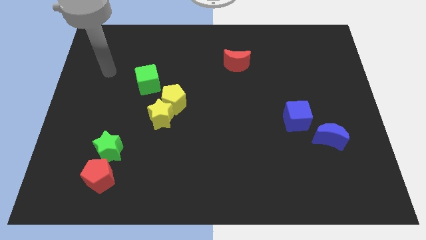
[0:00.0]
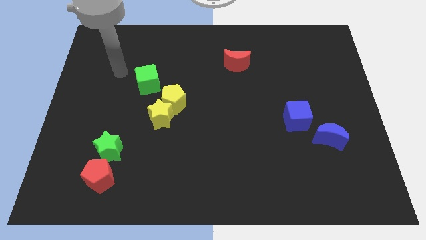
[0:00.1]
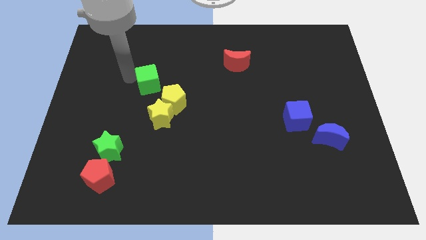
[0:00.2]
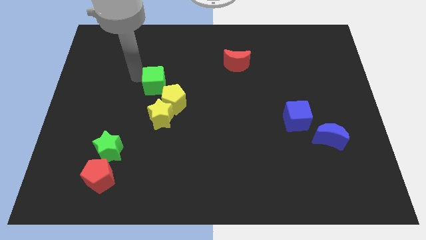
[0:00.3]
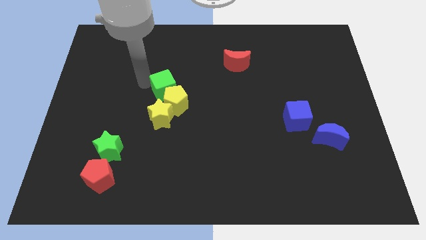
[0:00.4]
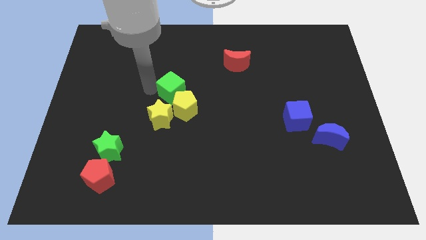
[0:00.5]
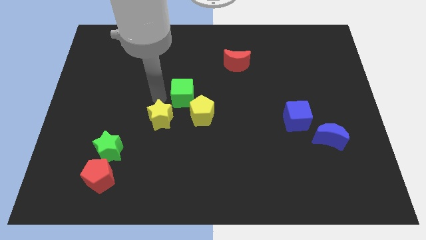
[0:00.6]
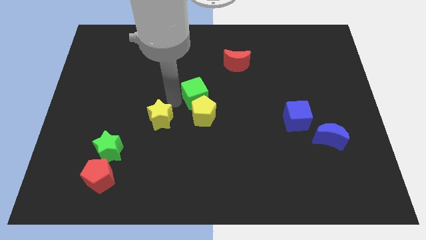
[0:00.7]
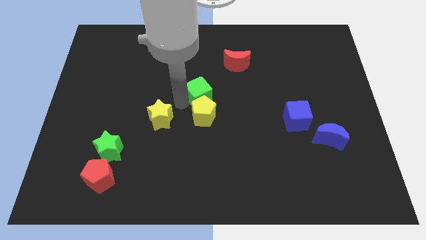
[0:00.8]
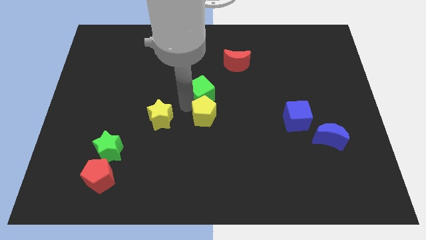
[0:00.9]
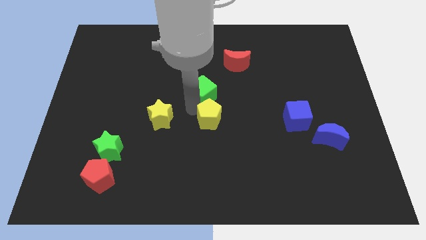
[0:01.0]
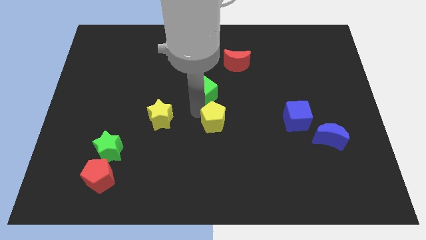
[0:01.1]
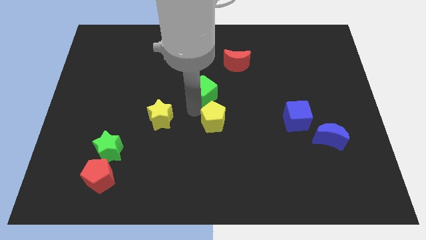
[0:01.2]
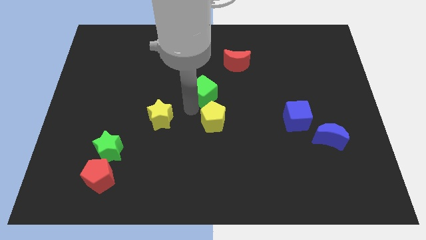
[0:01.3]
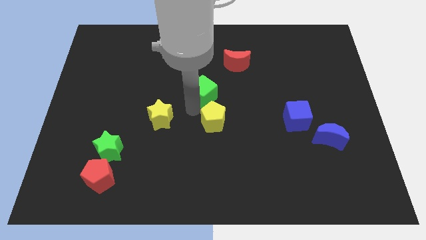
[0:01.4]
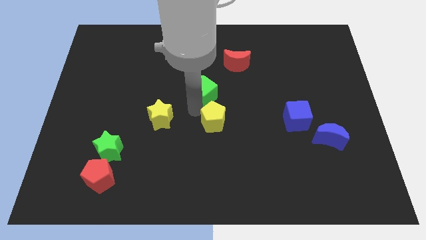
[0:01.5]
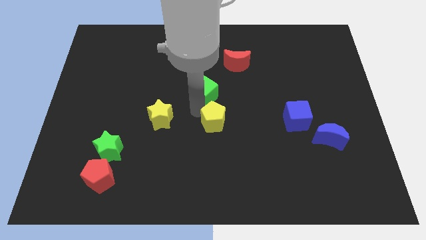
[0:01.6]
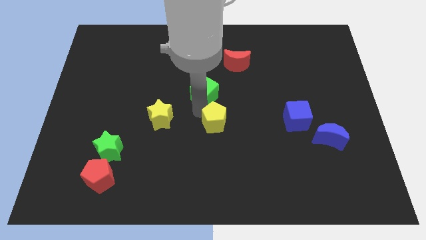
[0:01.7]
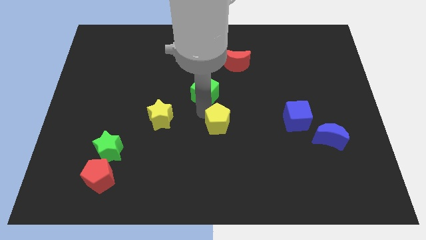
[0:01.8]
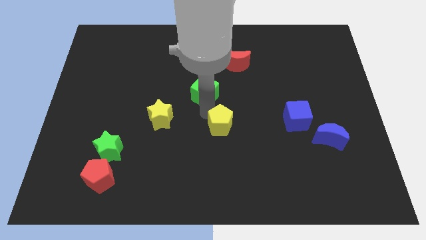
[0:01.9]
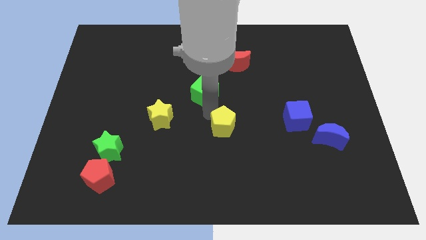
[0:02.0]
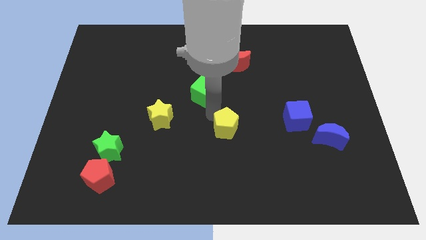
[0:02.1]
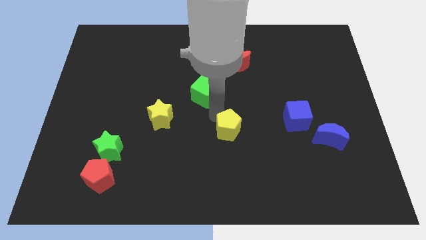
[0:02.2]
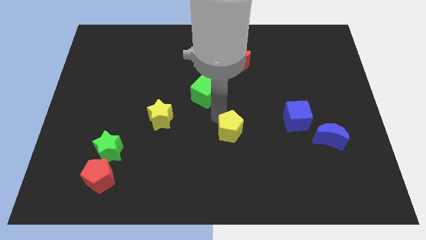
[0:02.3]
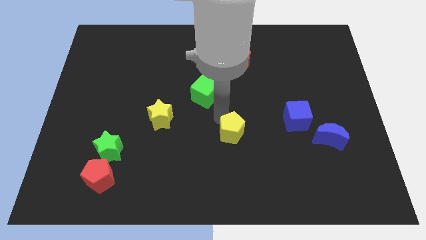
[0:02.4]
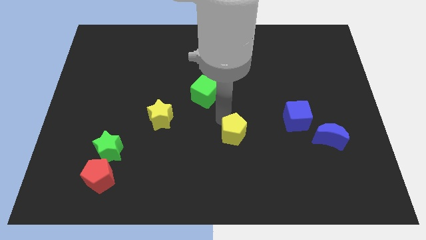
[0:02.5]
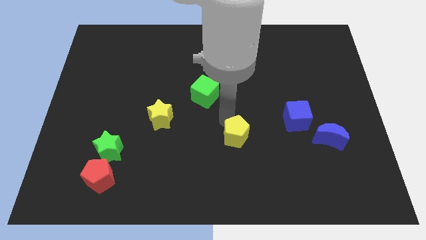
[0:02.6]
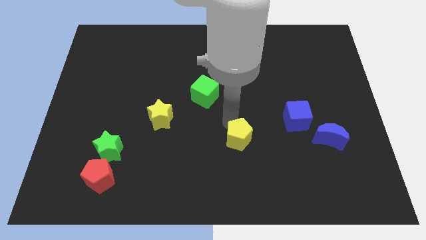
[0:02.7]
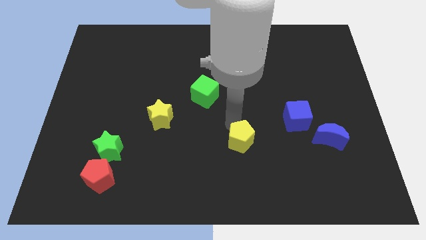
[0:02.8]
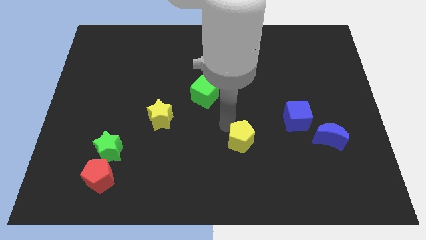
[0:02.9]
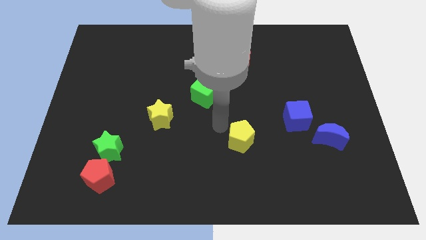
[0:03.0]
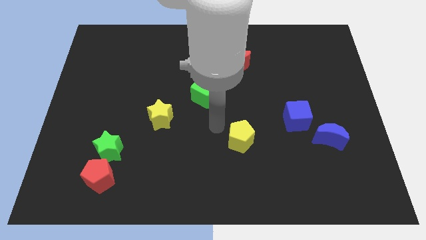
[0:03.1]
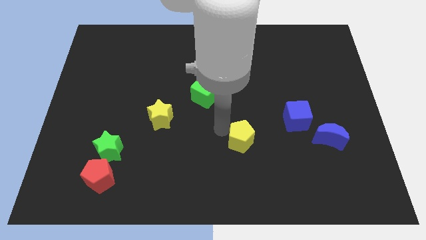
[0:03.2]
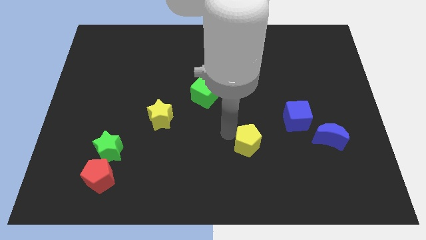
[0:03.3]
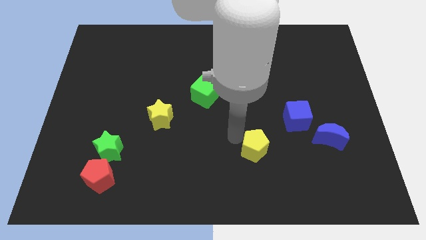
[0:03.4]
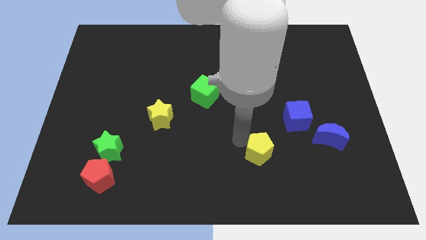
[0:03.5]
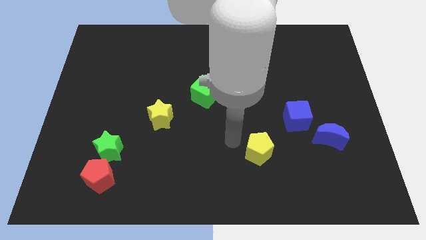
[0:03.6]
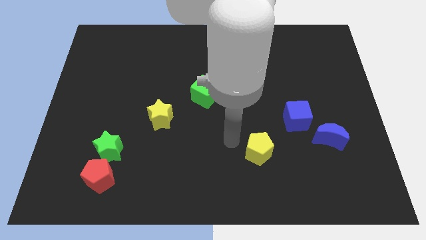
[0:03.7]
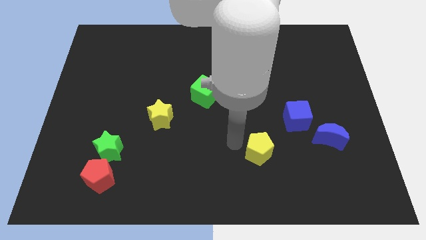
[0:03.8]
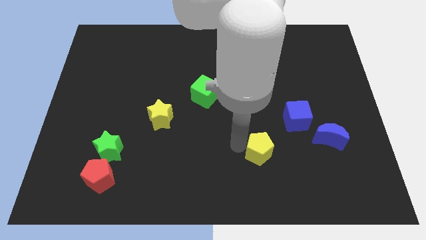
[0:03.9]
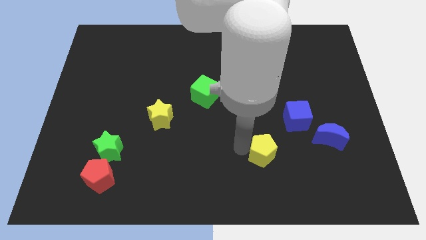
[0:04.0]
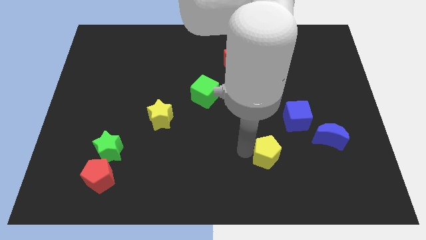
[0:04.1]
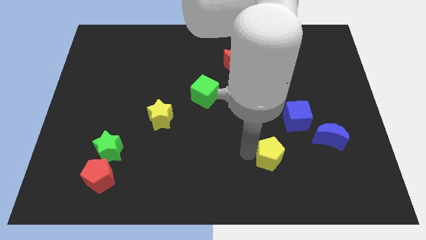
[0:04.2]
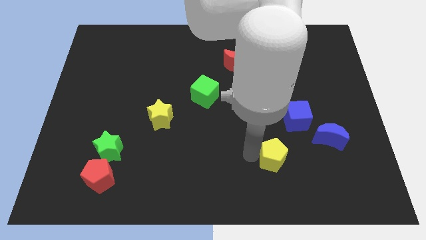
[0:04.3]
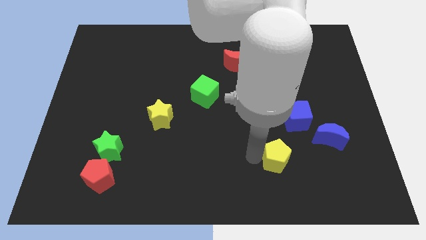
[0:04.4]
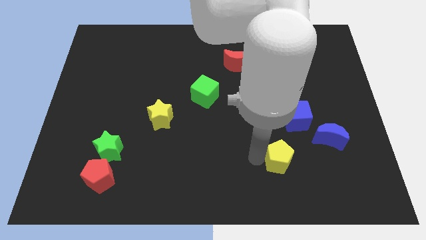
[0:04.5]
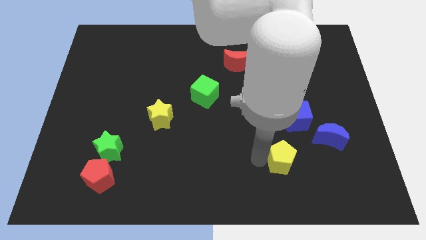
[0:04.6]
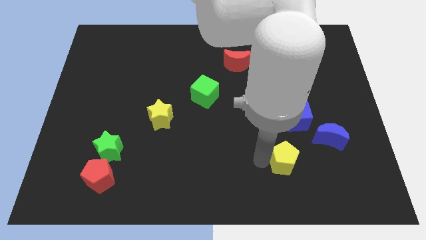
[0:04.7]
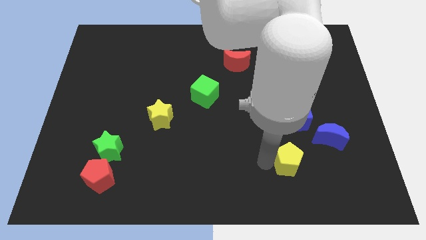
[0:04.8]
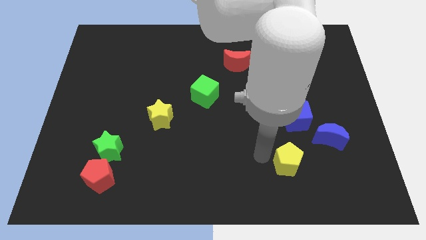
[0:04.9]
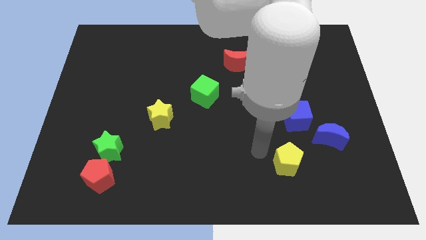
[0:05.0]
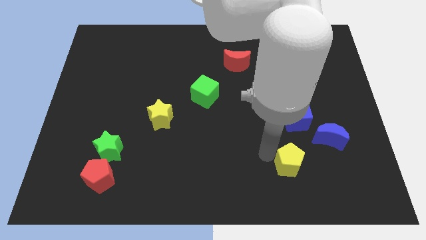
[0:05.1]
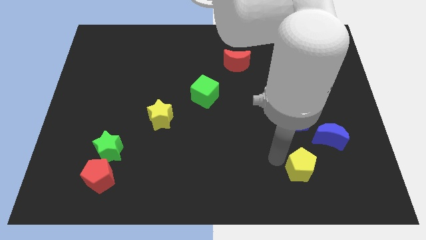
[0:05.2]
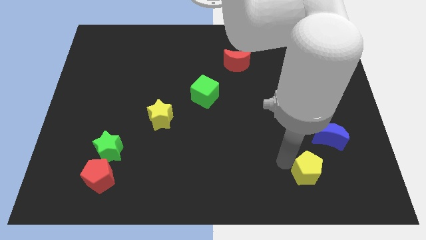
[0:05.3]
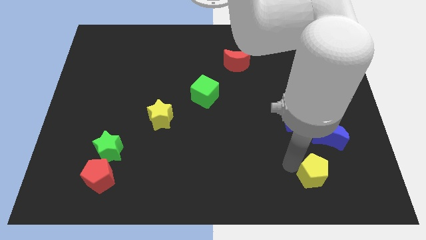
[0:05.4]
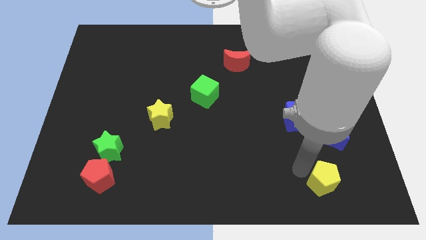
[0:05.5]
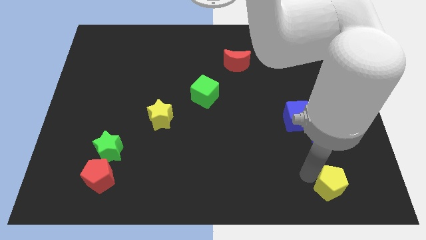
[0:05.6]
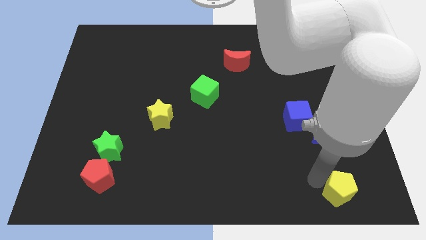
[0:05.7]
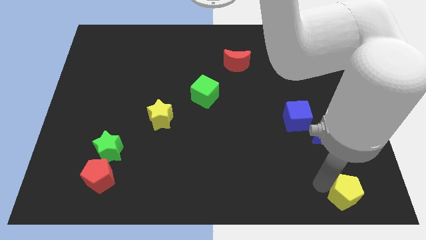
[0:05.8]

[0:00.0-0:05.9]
slide the yellow pentagon to the bottom right of the board
